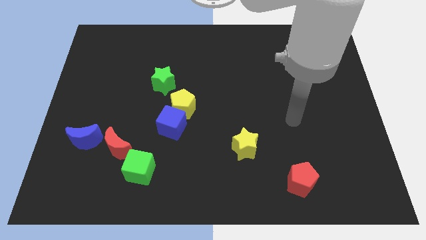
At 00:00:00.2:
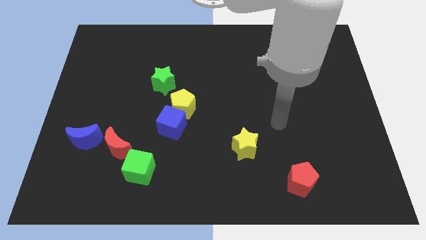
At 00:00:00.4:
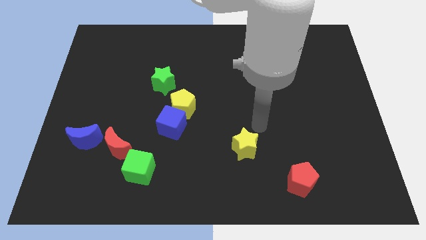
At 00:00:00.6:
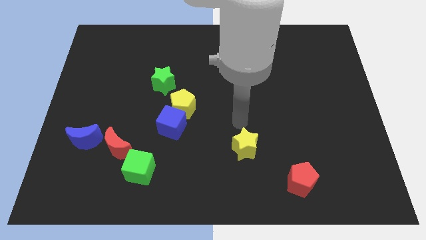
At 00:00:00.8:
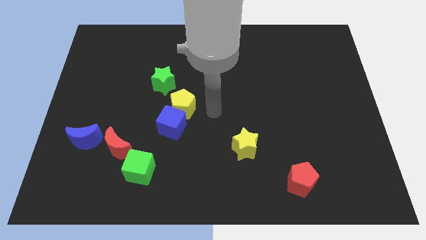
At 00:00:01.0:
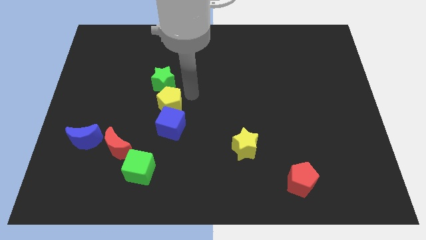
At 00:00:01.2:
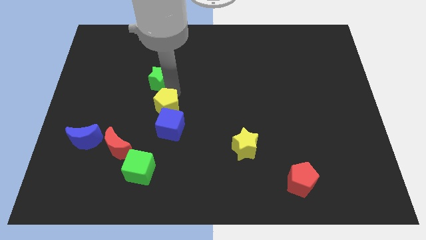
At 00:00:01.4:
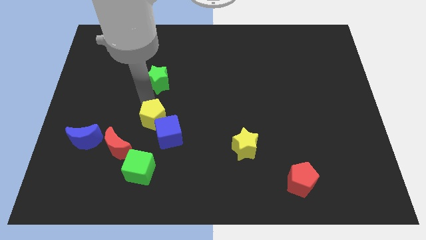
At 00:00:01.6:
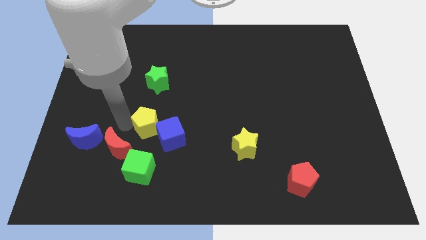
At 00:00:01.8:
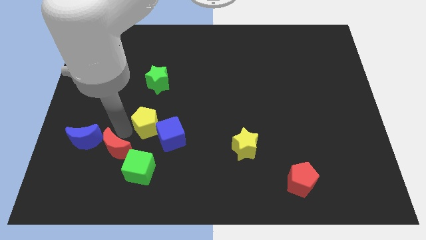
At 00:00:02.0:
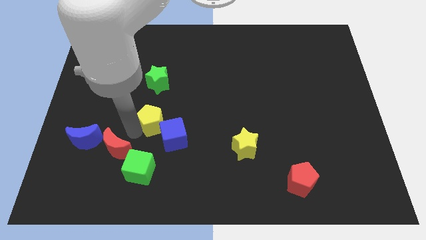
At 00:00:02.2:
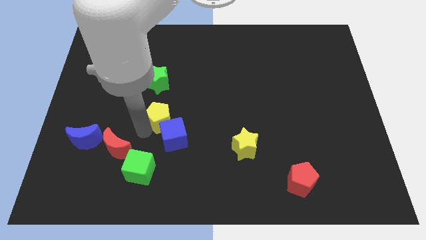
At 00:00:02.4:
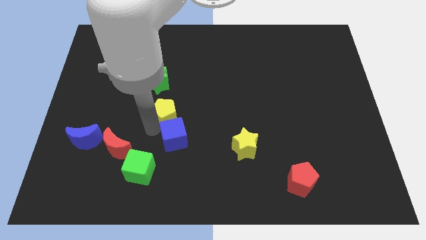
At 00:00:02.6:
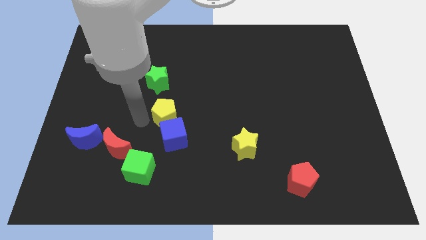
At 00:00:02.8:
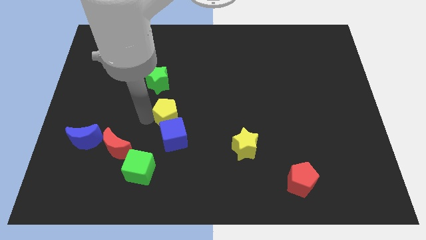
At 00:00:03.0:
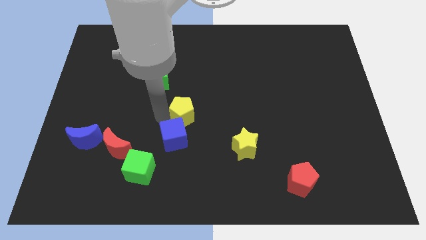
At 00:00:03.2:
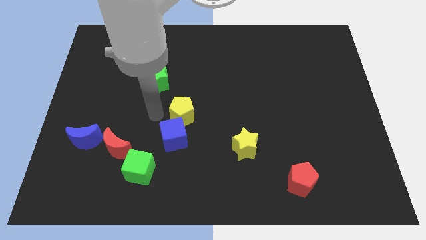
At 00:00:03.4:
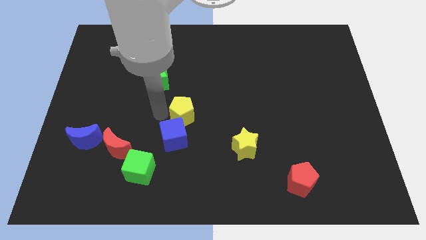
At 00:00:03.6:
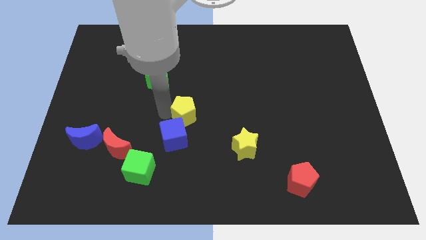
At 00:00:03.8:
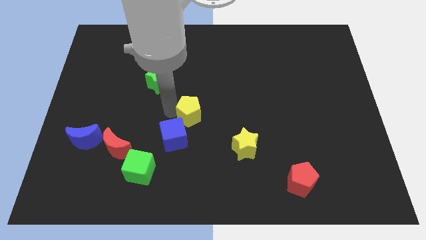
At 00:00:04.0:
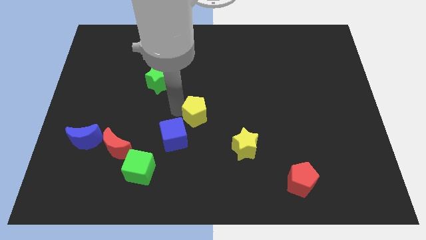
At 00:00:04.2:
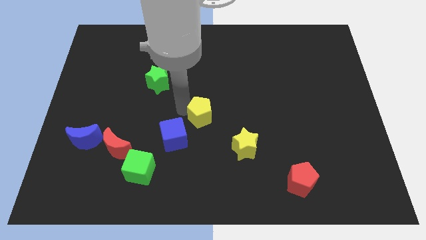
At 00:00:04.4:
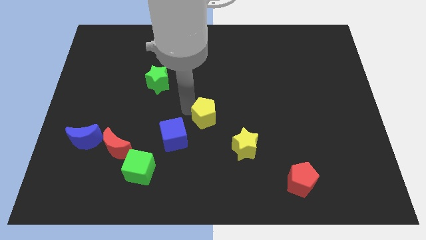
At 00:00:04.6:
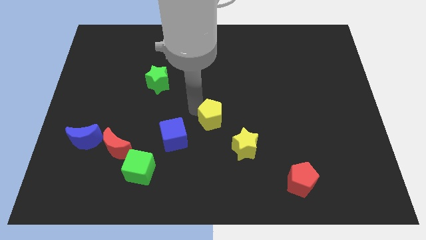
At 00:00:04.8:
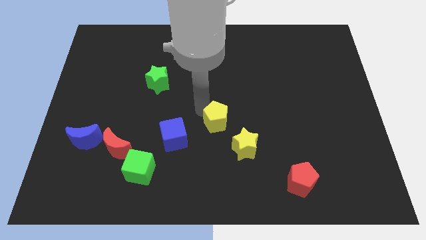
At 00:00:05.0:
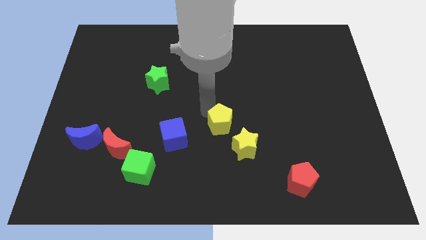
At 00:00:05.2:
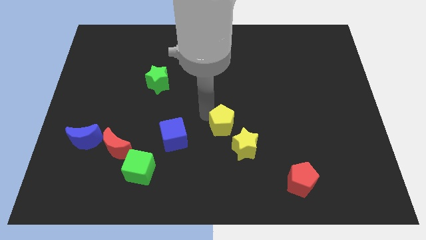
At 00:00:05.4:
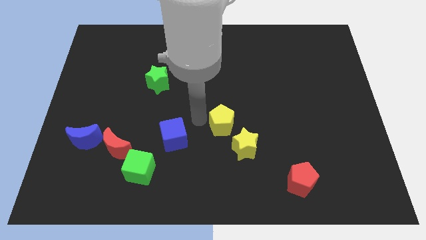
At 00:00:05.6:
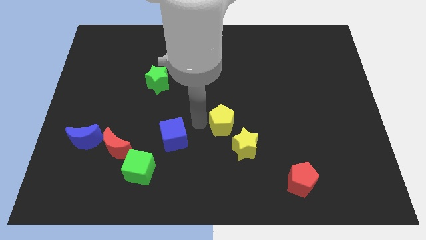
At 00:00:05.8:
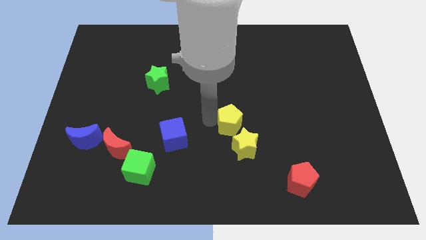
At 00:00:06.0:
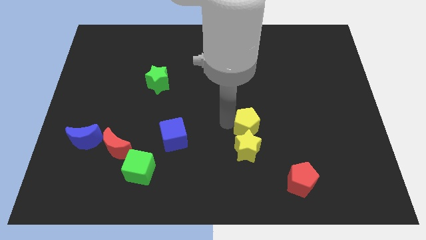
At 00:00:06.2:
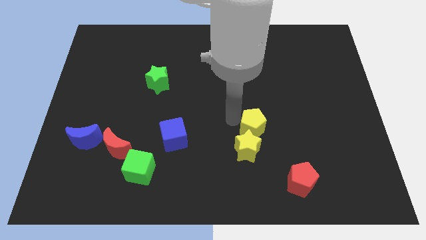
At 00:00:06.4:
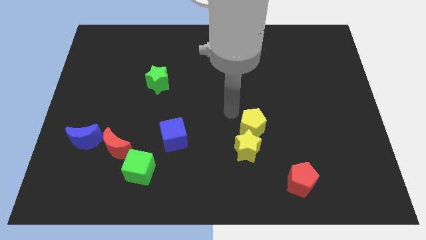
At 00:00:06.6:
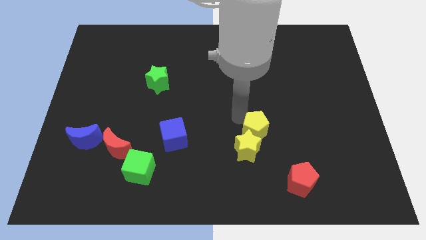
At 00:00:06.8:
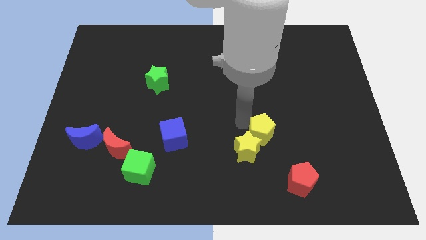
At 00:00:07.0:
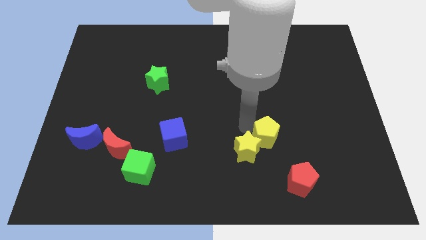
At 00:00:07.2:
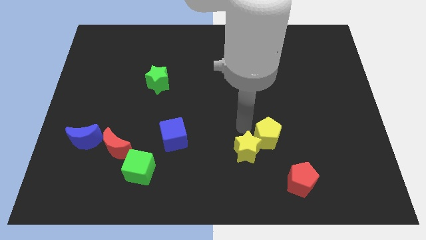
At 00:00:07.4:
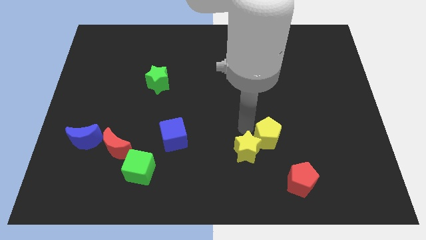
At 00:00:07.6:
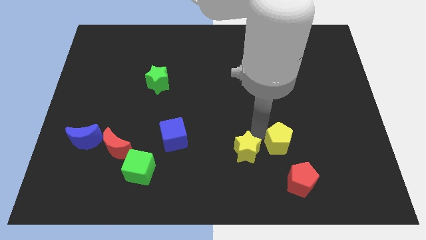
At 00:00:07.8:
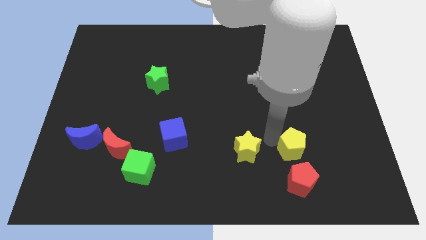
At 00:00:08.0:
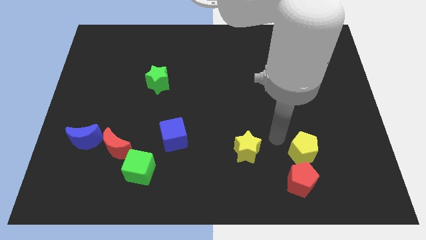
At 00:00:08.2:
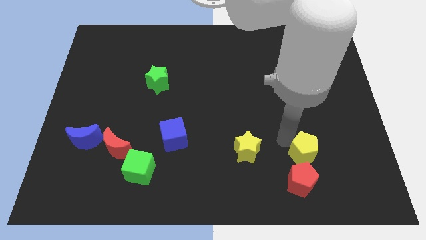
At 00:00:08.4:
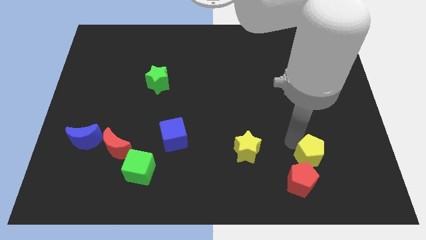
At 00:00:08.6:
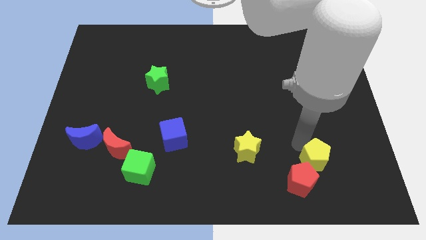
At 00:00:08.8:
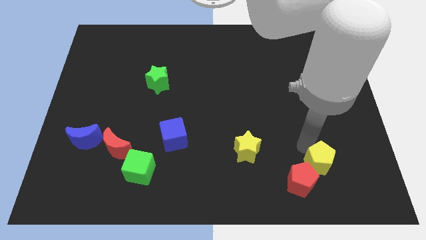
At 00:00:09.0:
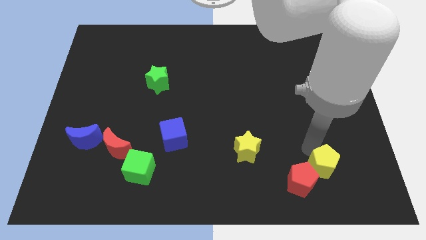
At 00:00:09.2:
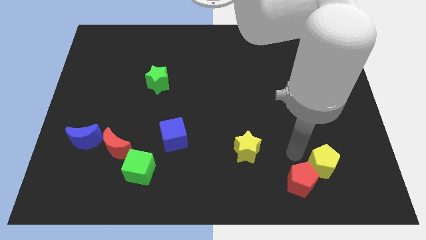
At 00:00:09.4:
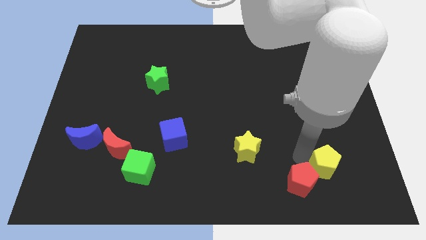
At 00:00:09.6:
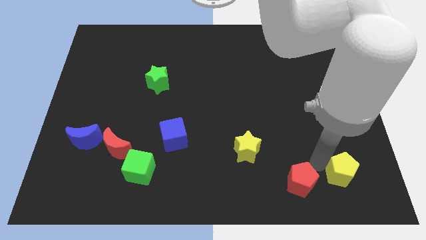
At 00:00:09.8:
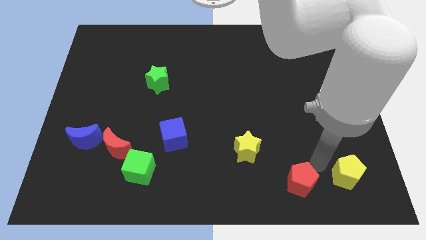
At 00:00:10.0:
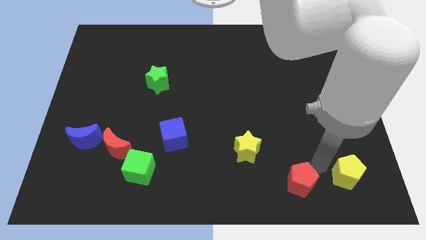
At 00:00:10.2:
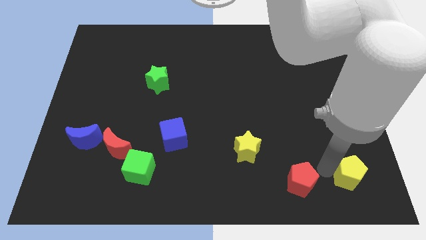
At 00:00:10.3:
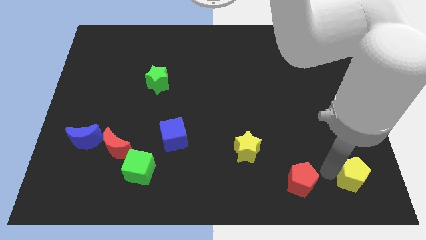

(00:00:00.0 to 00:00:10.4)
slide the yellow pentagon to the lower right corner

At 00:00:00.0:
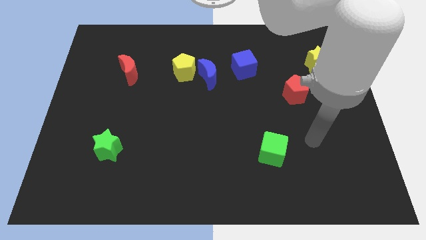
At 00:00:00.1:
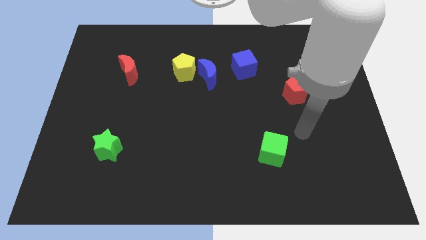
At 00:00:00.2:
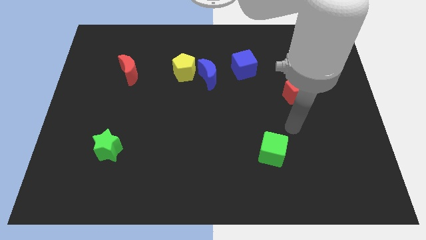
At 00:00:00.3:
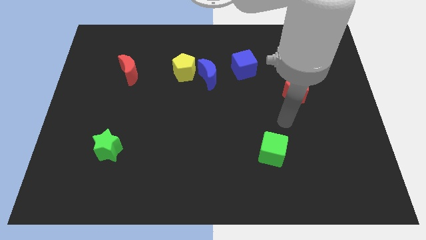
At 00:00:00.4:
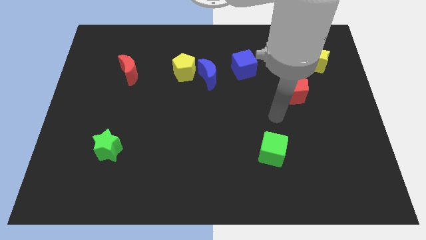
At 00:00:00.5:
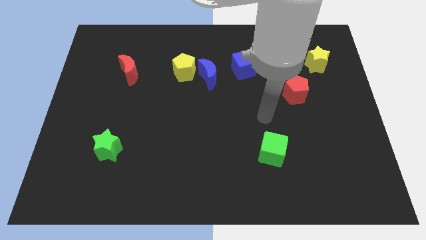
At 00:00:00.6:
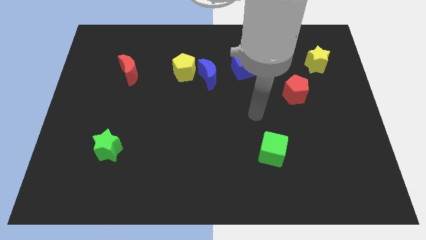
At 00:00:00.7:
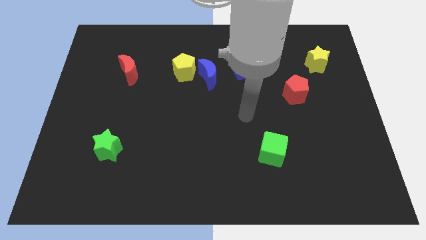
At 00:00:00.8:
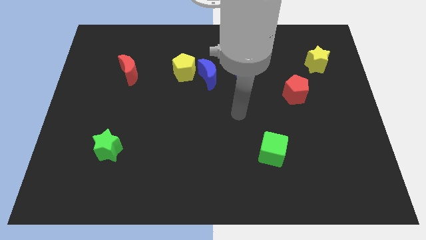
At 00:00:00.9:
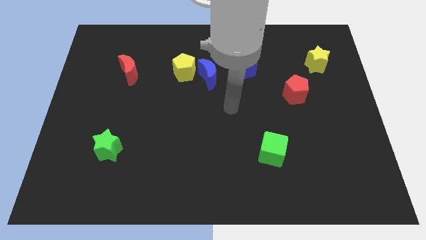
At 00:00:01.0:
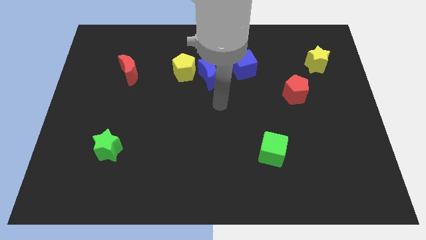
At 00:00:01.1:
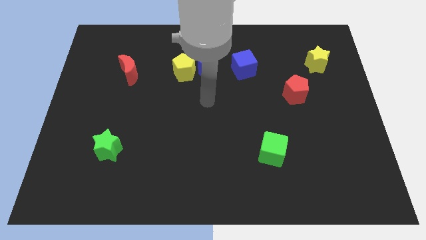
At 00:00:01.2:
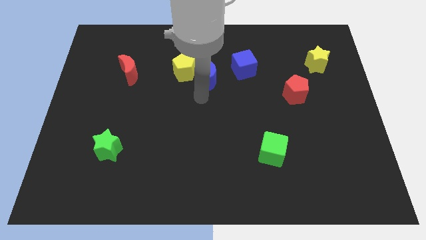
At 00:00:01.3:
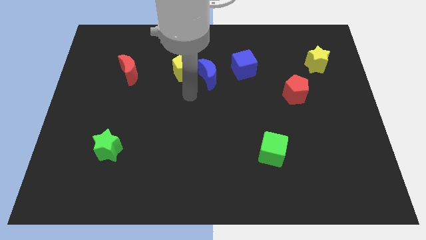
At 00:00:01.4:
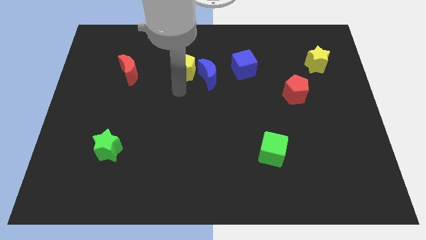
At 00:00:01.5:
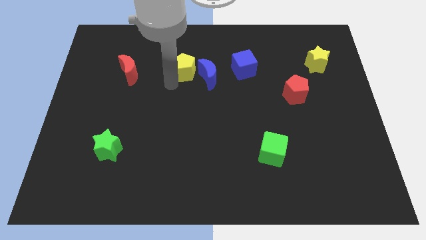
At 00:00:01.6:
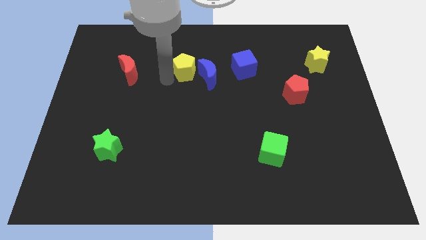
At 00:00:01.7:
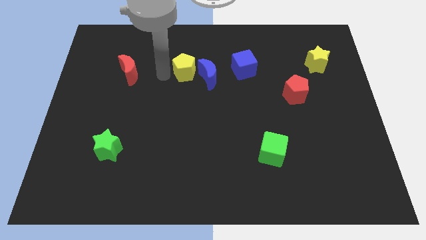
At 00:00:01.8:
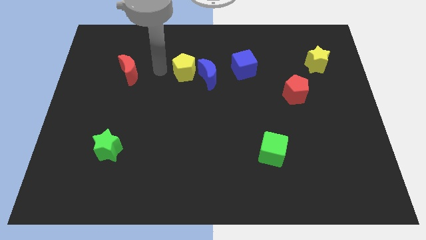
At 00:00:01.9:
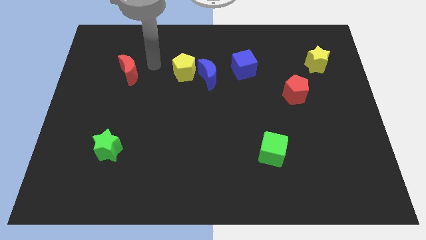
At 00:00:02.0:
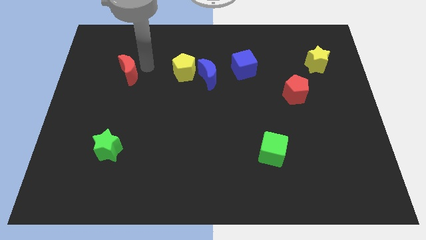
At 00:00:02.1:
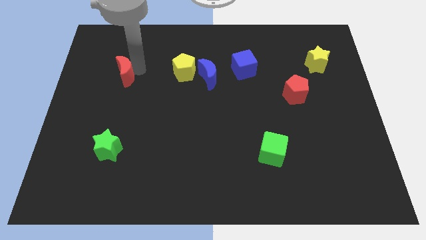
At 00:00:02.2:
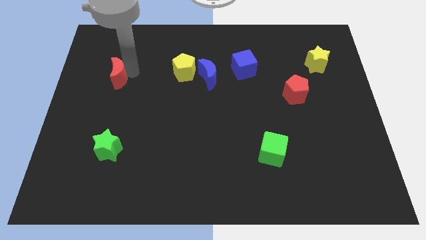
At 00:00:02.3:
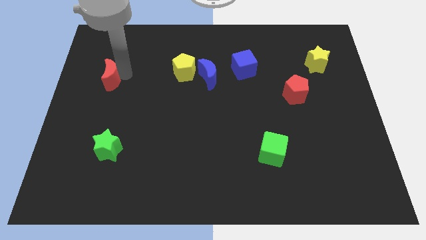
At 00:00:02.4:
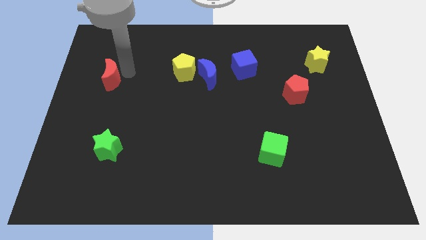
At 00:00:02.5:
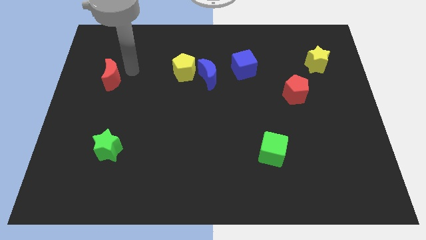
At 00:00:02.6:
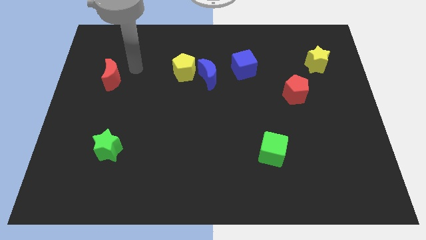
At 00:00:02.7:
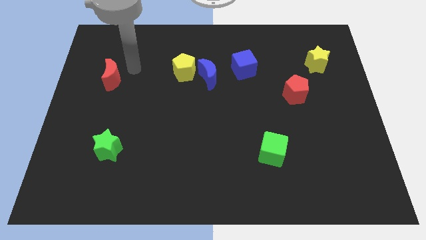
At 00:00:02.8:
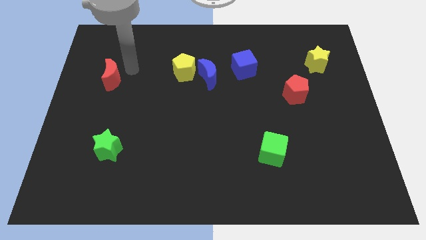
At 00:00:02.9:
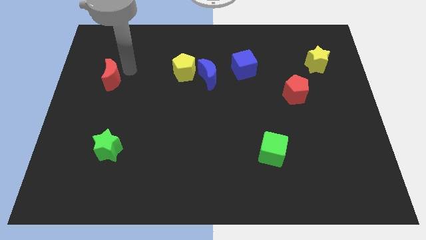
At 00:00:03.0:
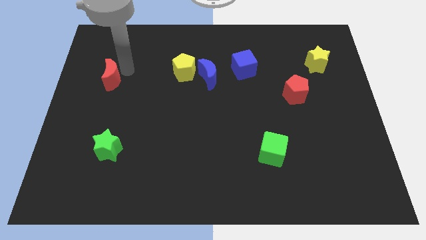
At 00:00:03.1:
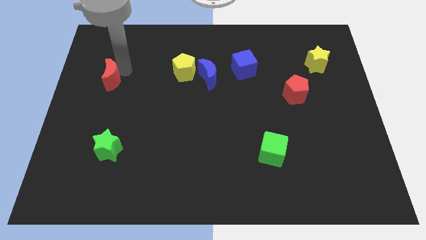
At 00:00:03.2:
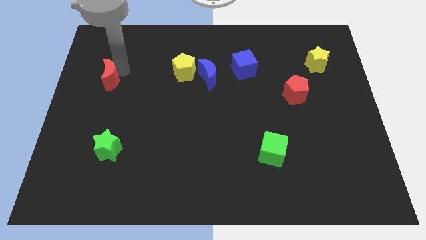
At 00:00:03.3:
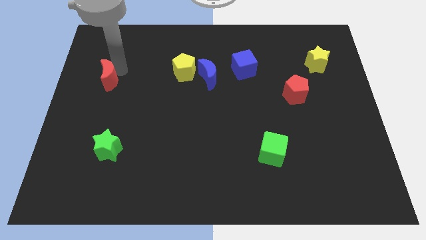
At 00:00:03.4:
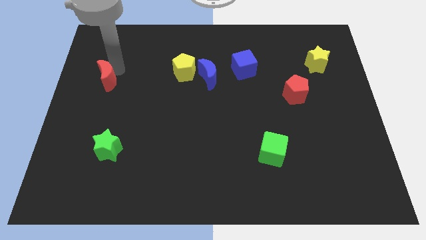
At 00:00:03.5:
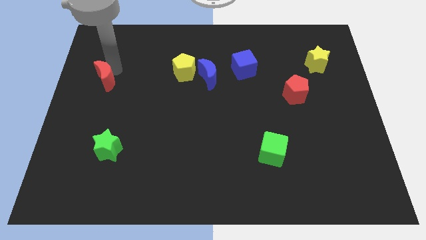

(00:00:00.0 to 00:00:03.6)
put the red moon to the left side of the board
